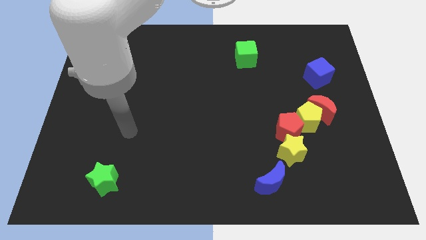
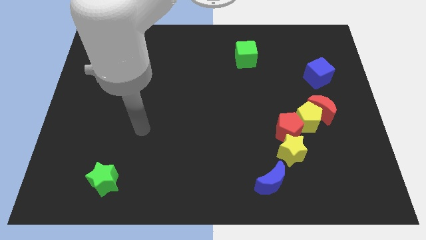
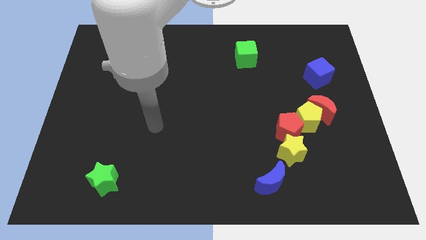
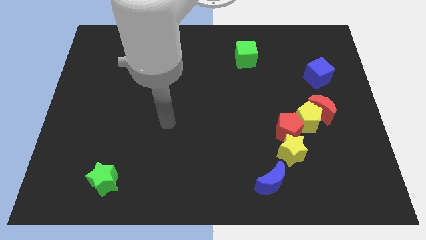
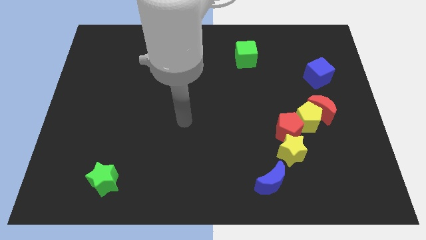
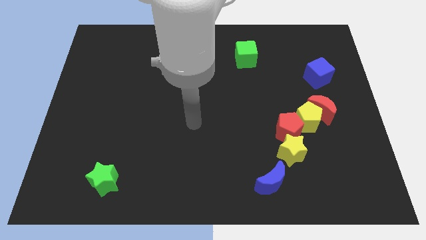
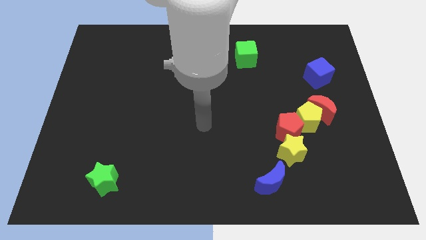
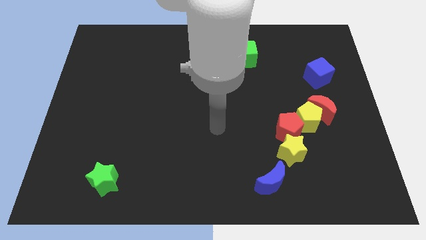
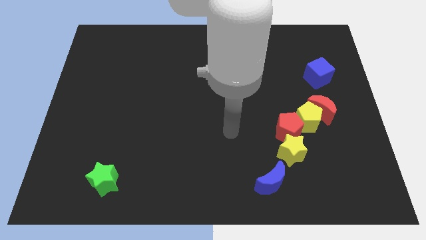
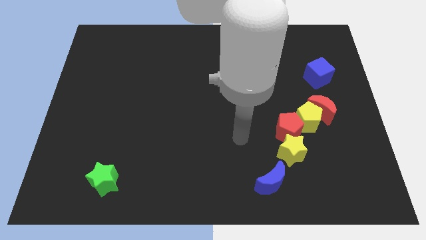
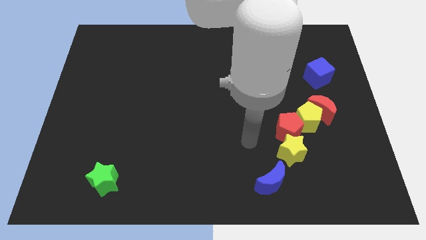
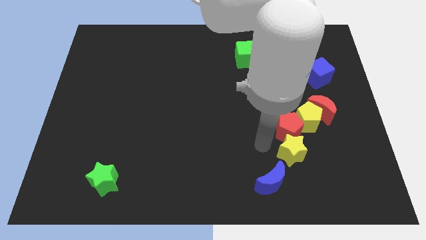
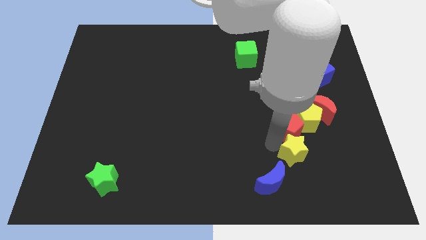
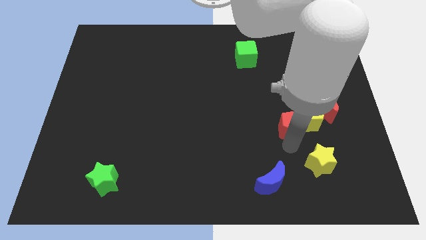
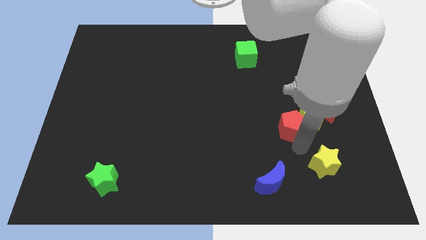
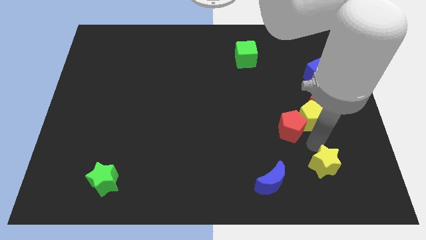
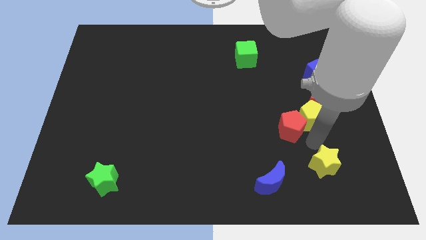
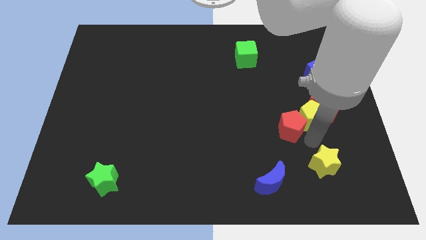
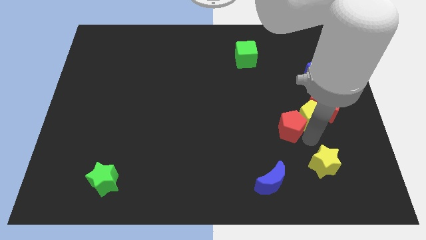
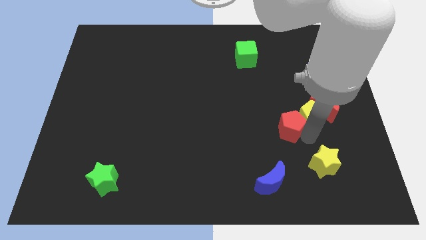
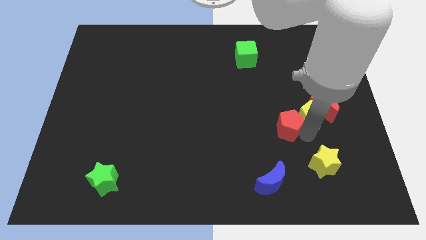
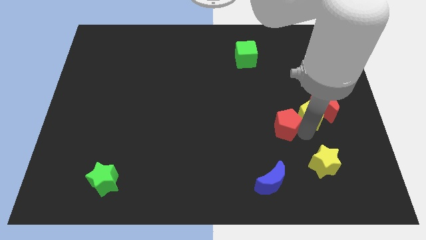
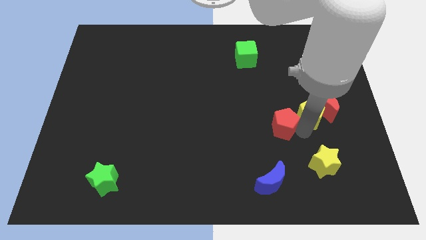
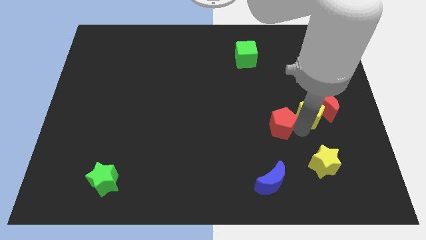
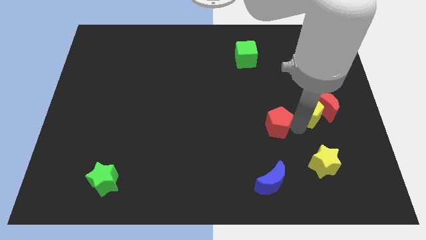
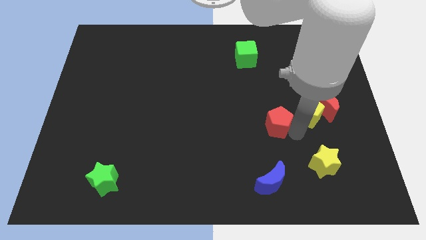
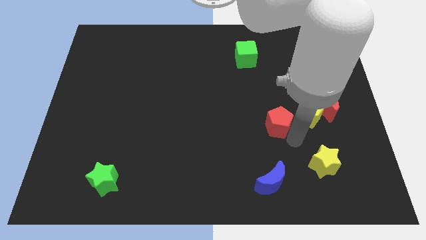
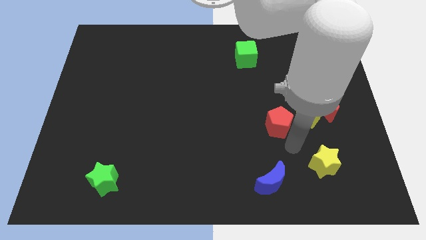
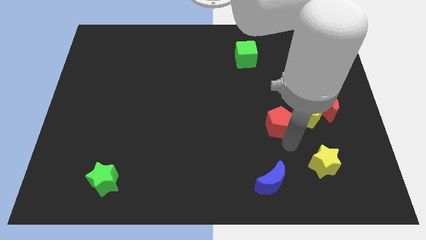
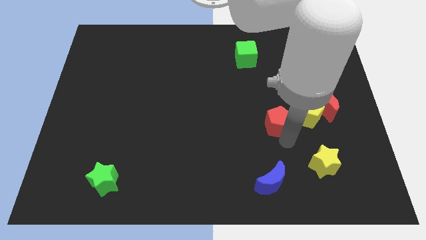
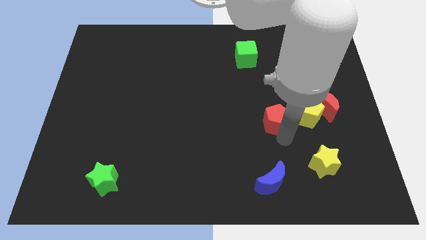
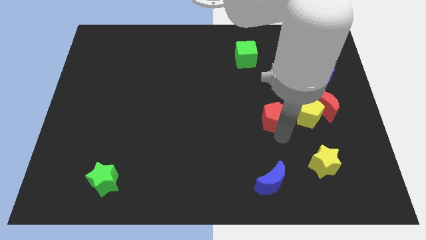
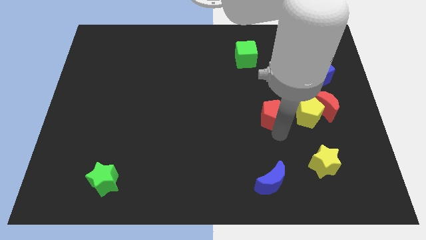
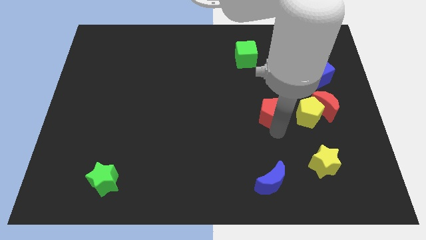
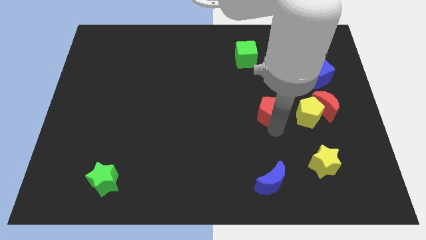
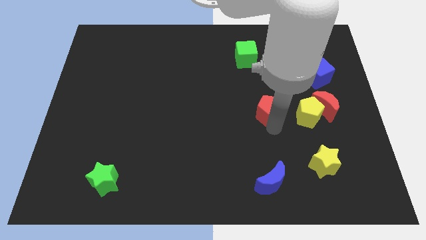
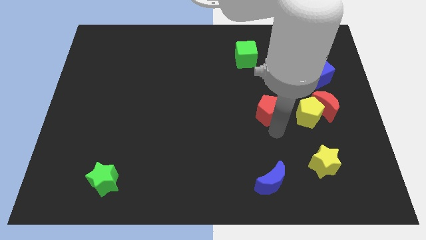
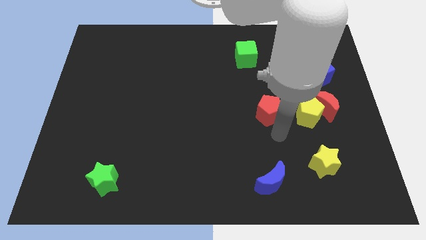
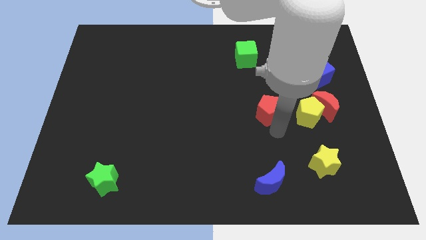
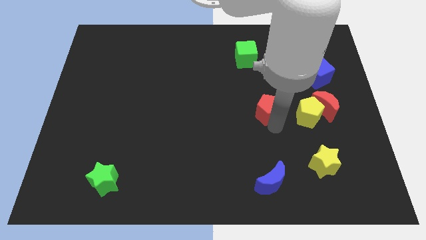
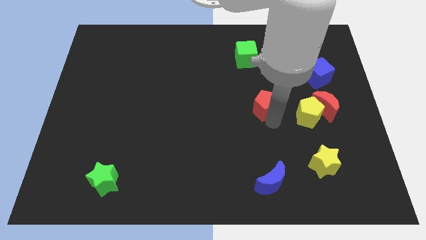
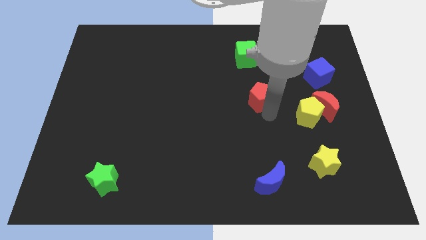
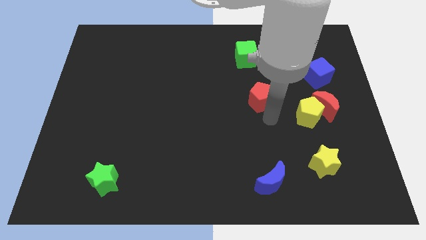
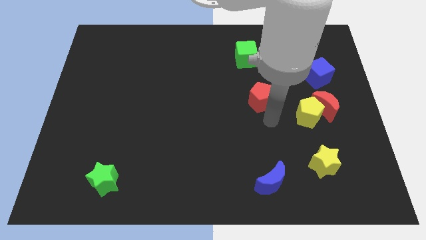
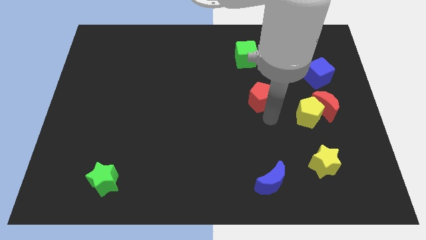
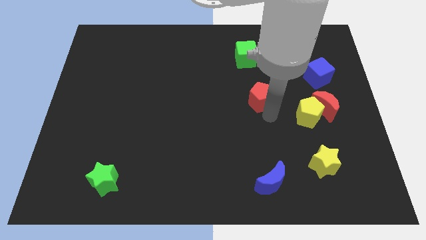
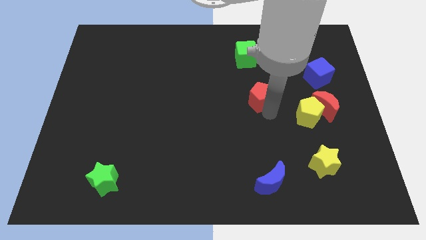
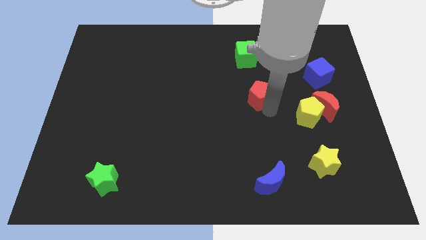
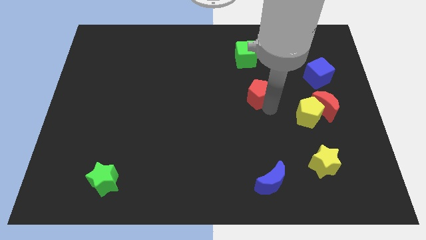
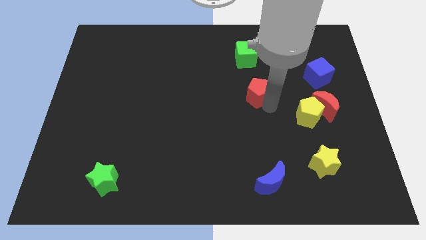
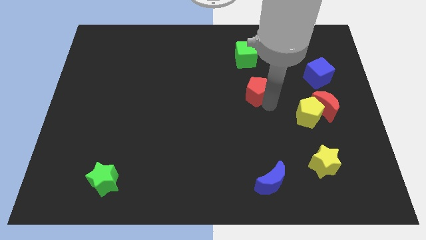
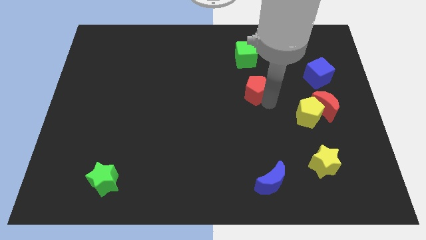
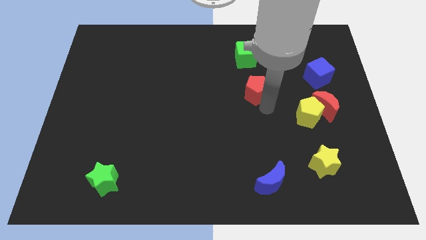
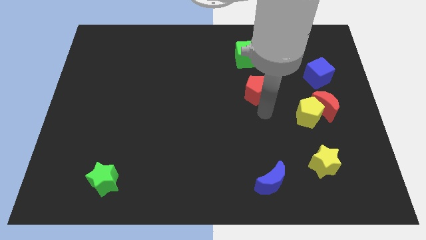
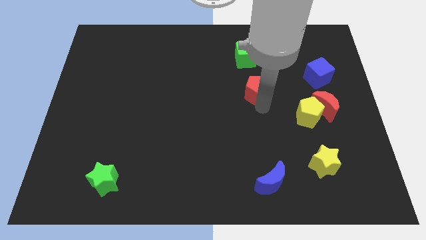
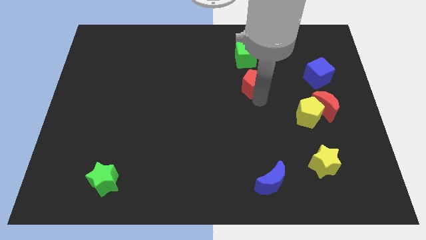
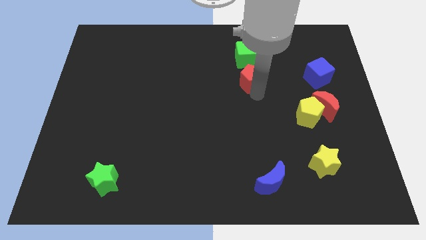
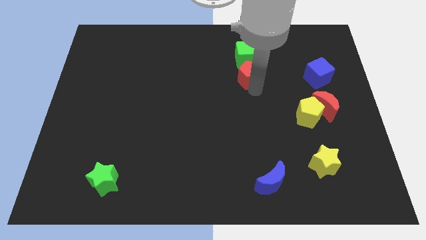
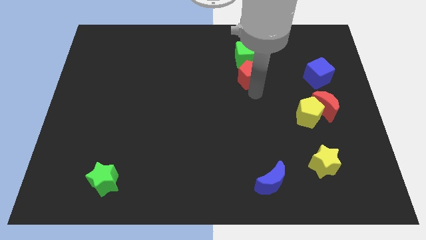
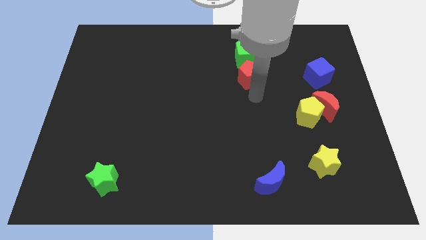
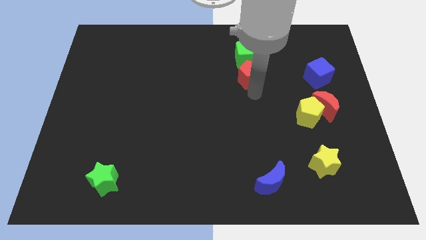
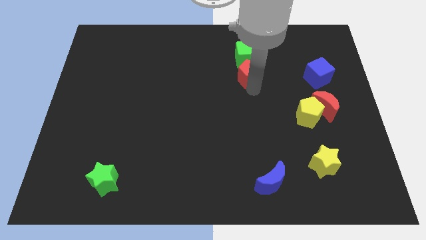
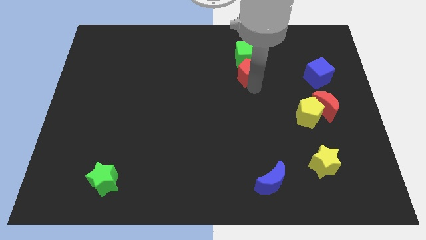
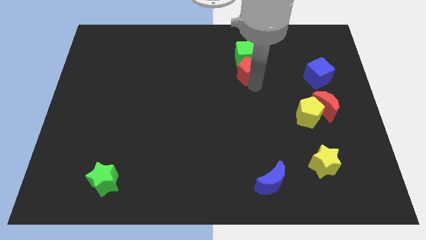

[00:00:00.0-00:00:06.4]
put the red pentagon towards the green cube

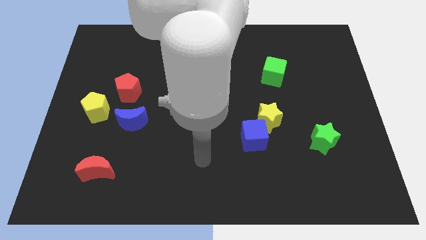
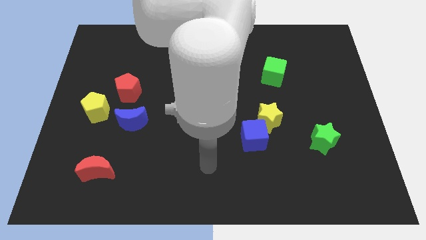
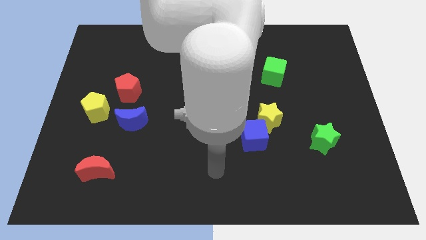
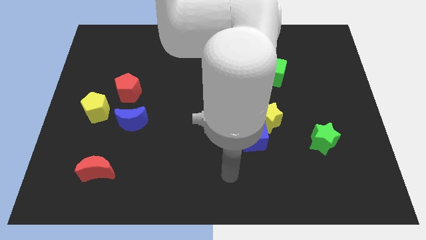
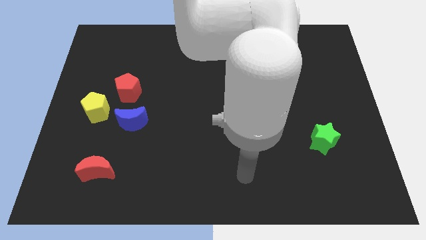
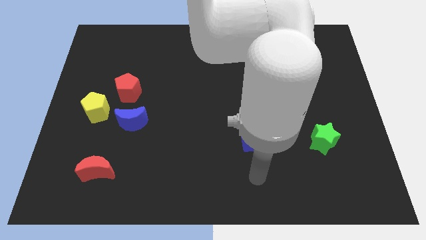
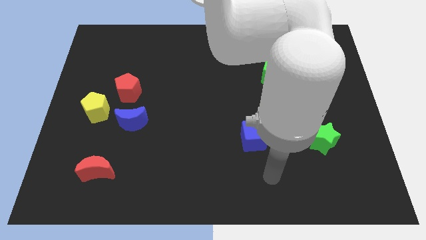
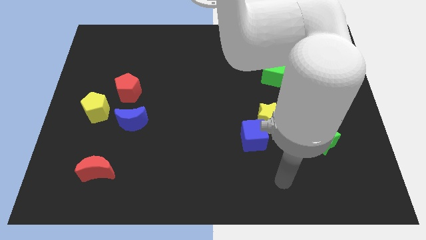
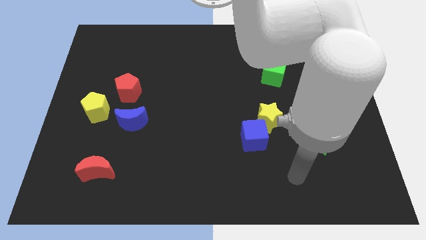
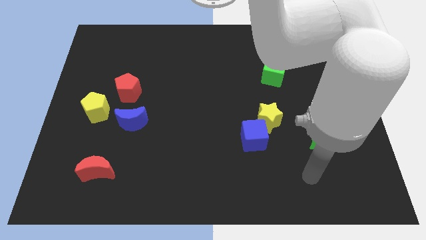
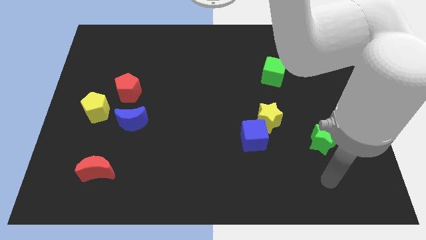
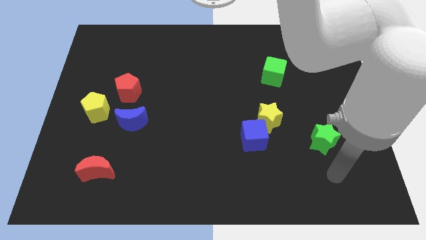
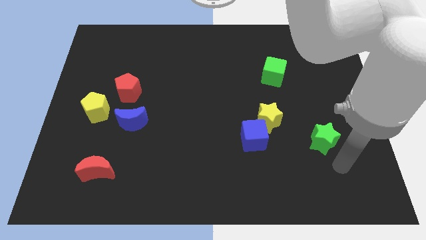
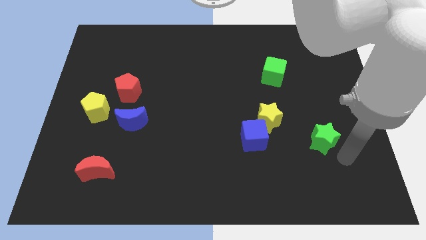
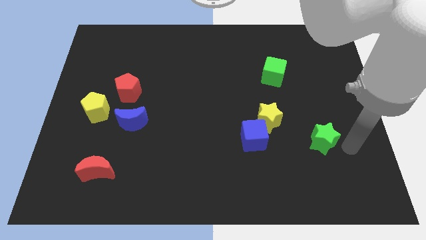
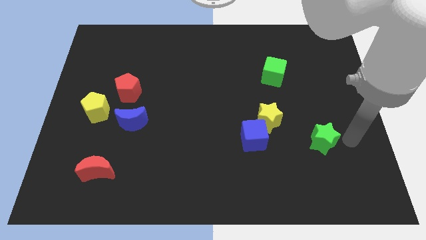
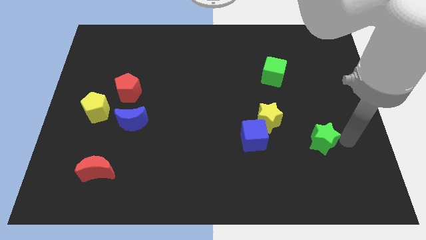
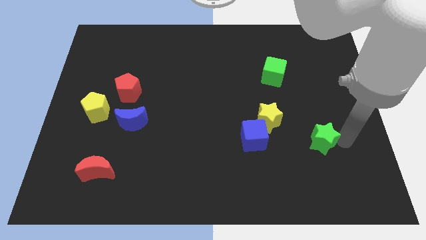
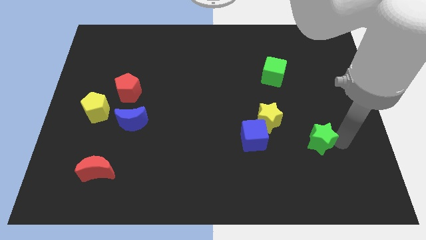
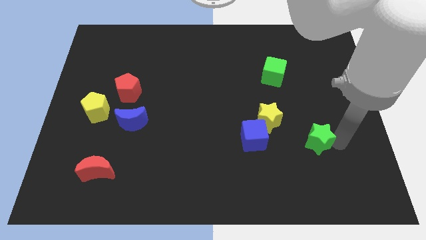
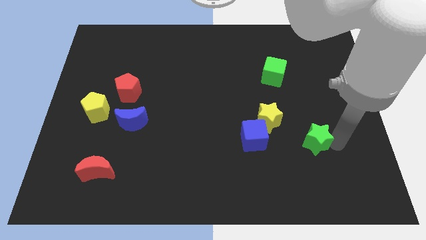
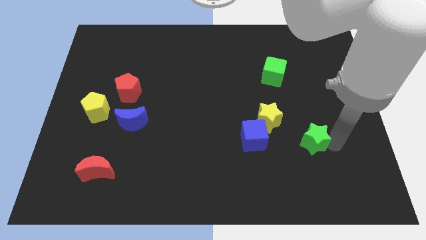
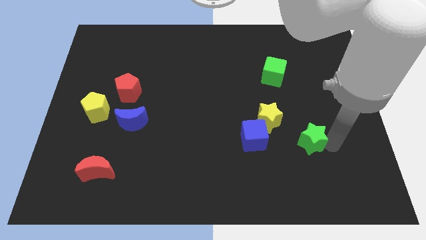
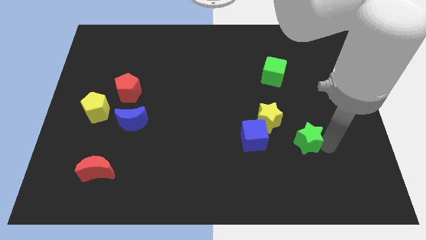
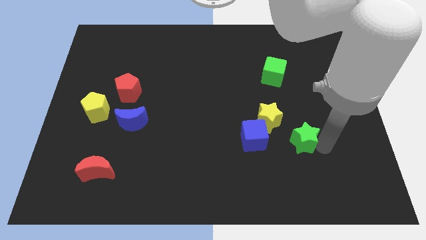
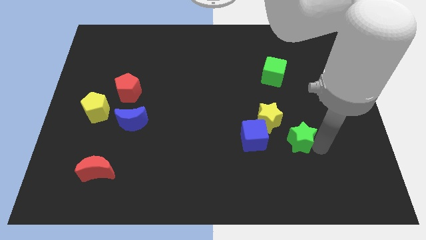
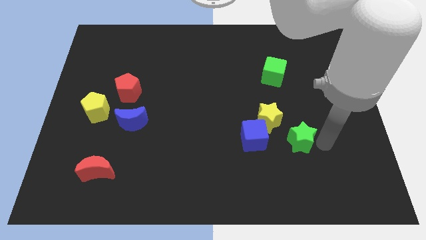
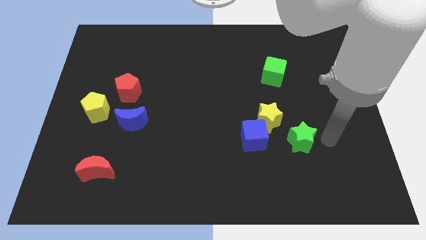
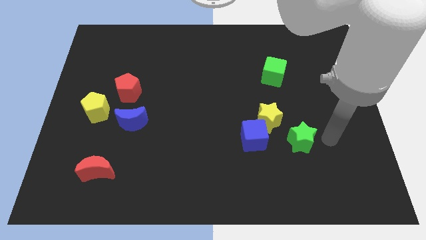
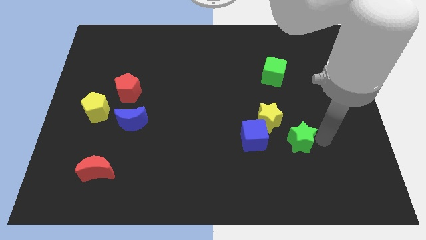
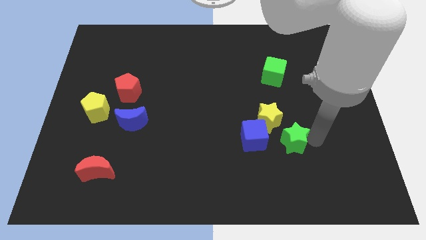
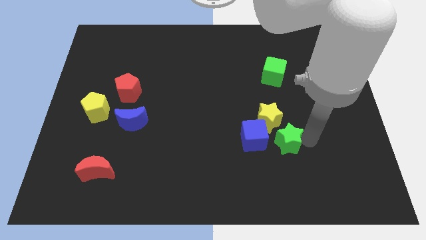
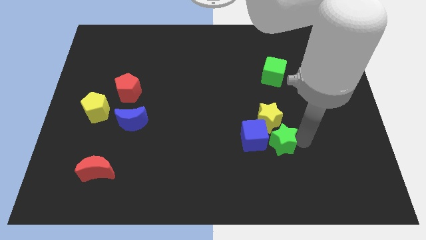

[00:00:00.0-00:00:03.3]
slide the green star to the blue cube
